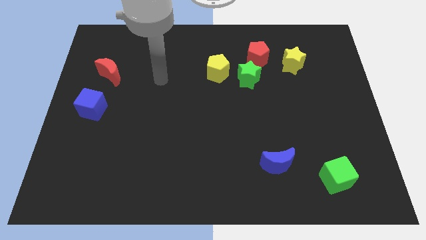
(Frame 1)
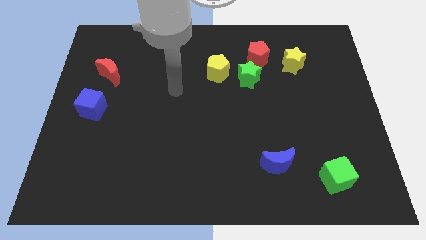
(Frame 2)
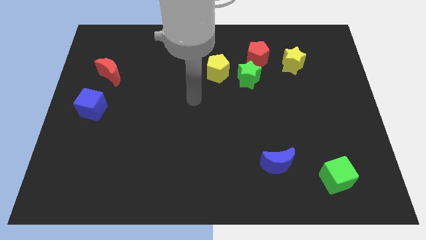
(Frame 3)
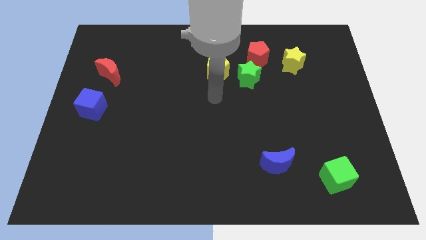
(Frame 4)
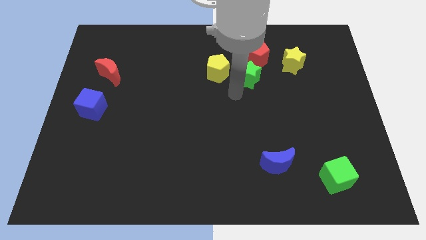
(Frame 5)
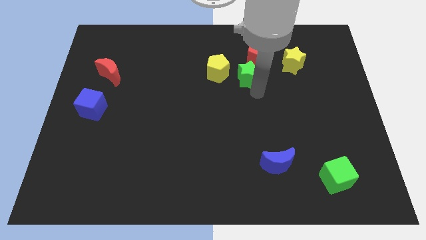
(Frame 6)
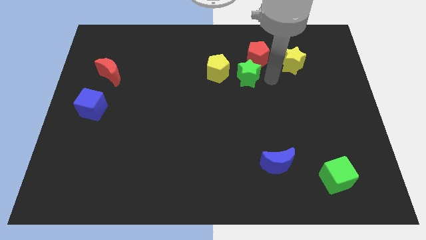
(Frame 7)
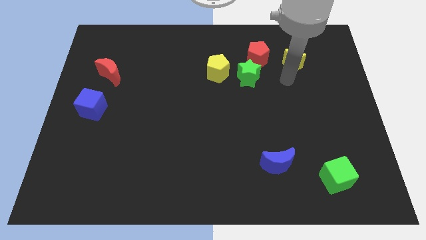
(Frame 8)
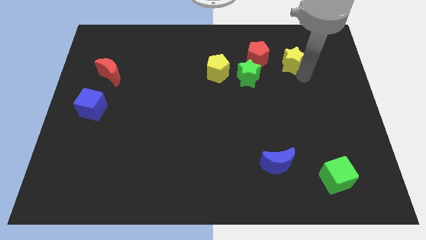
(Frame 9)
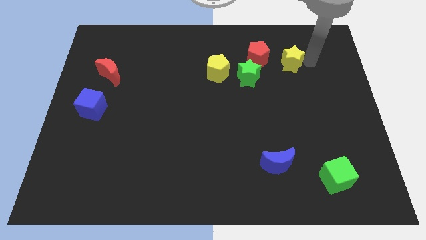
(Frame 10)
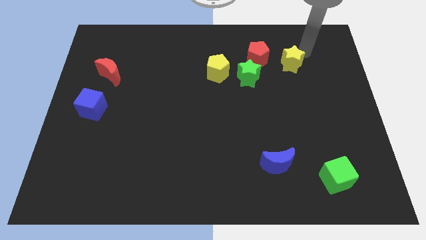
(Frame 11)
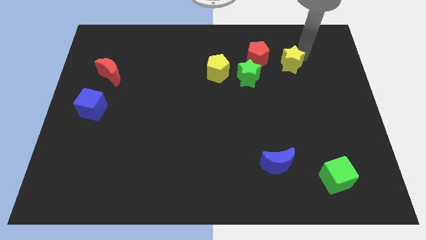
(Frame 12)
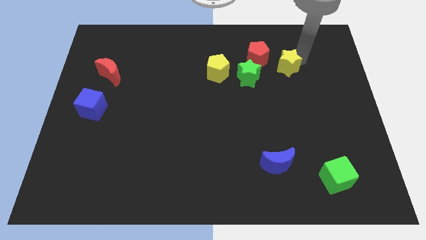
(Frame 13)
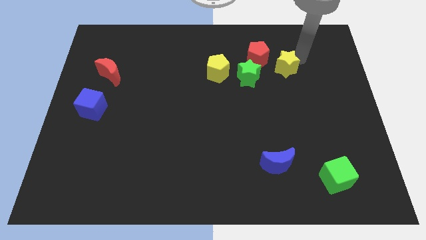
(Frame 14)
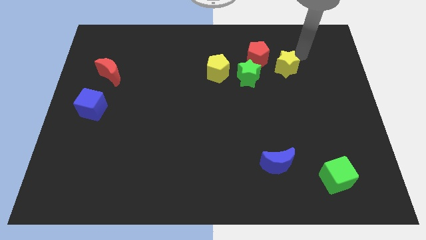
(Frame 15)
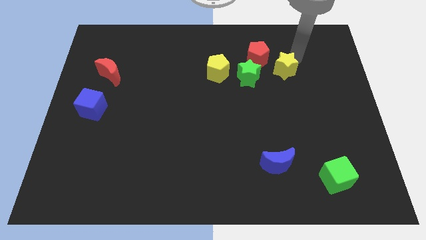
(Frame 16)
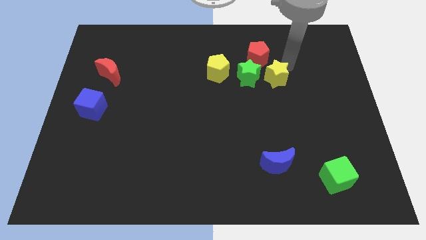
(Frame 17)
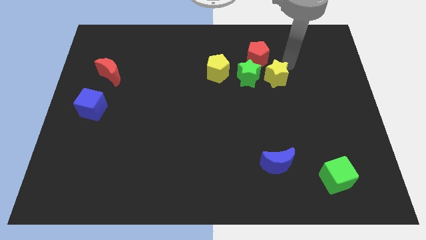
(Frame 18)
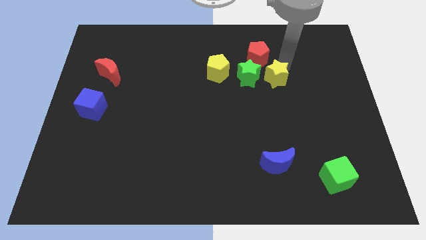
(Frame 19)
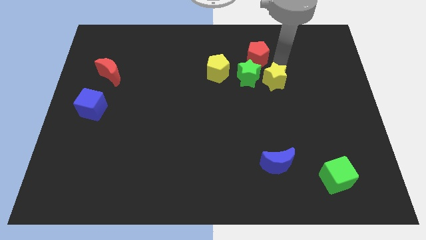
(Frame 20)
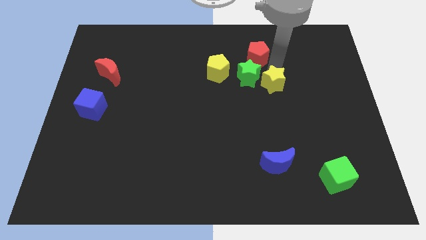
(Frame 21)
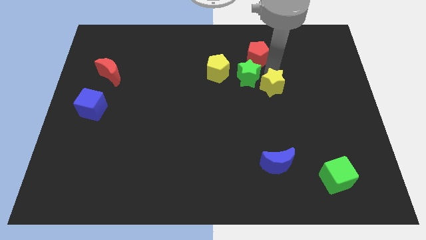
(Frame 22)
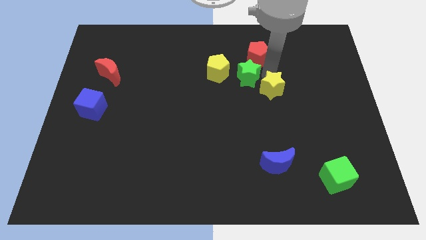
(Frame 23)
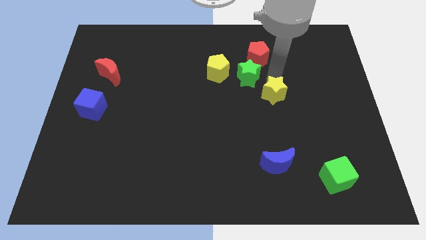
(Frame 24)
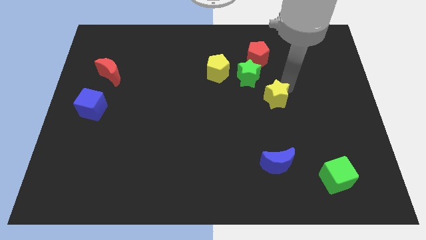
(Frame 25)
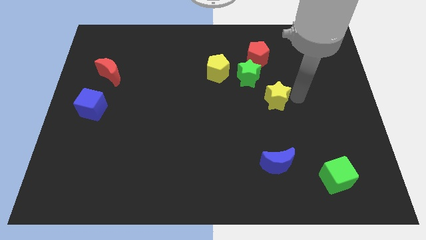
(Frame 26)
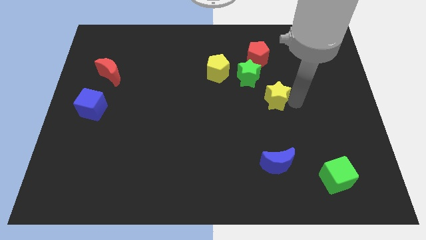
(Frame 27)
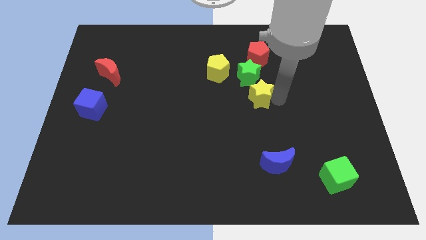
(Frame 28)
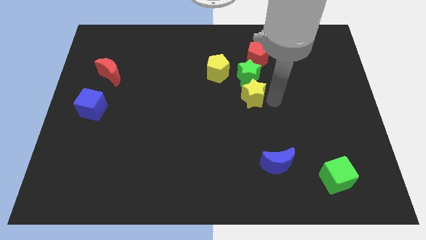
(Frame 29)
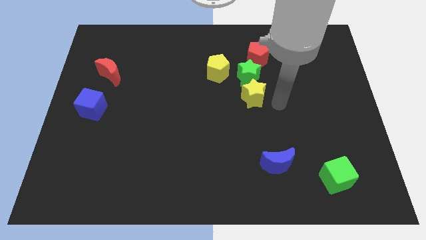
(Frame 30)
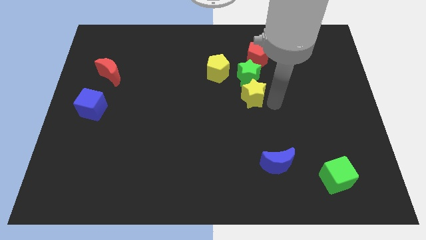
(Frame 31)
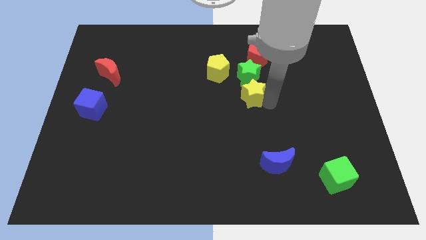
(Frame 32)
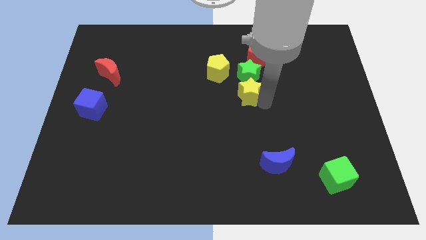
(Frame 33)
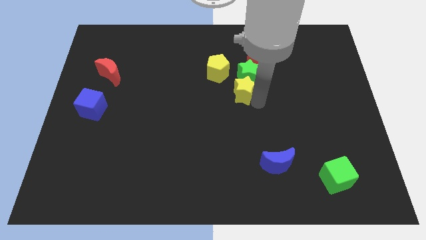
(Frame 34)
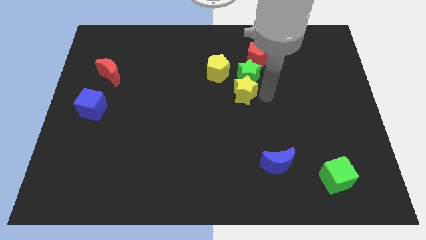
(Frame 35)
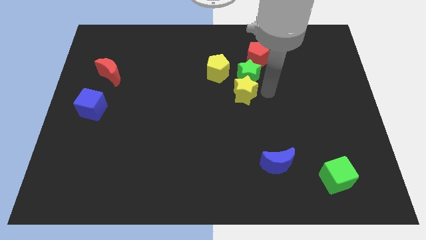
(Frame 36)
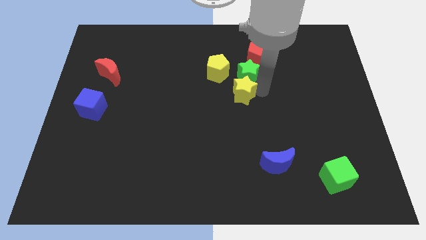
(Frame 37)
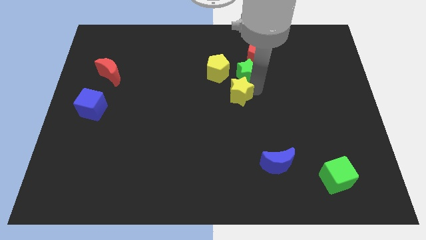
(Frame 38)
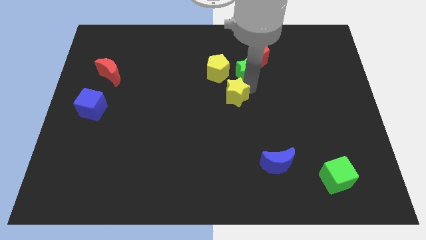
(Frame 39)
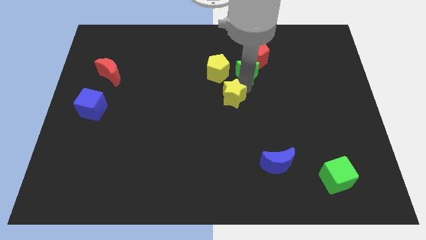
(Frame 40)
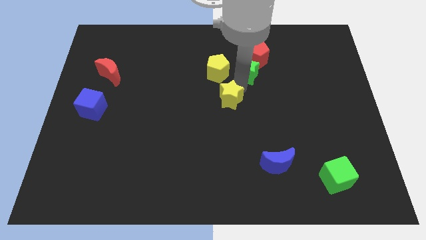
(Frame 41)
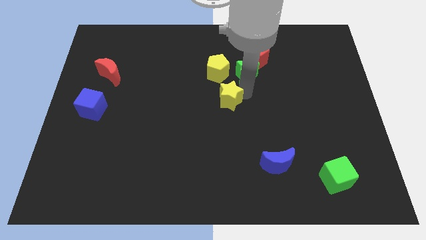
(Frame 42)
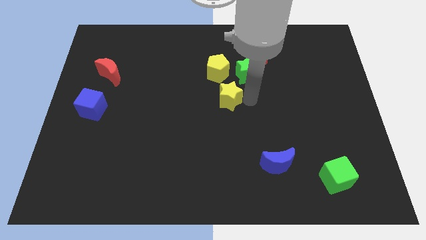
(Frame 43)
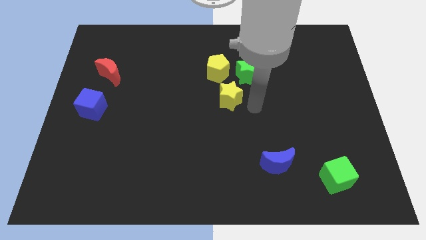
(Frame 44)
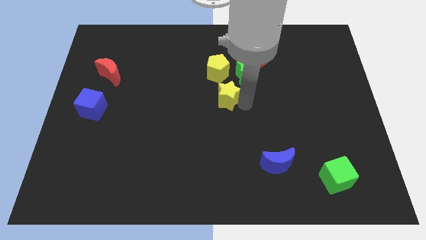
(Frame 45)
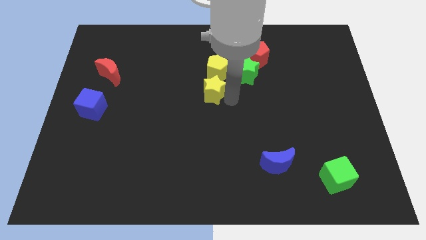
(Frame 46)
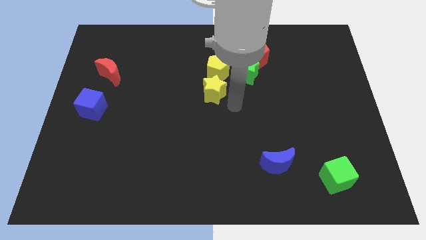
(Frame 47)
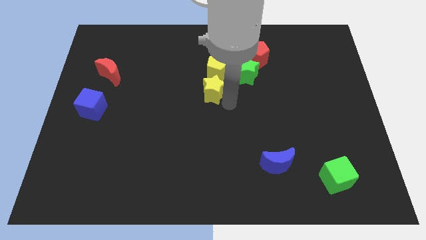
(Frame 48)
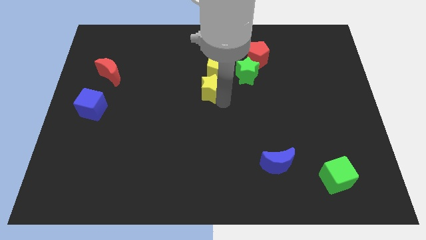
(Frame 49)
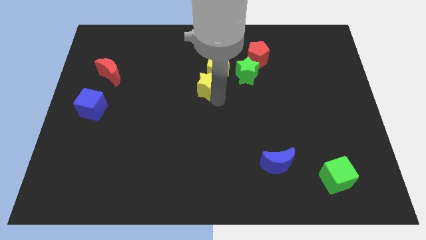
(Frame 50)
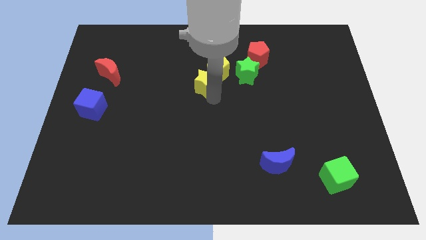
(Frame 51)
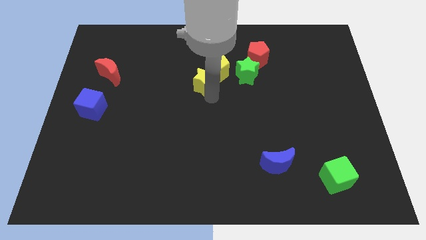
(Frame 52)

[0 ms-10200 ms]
slide the yellow star to the left

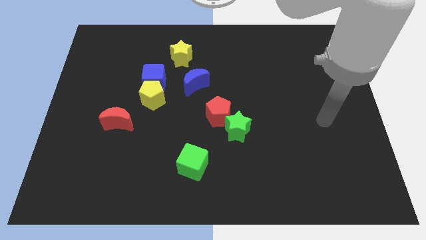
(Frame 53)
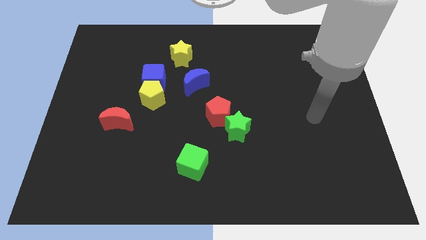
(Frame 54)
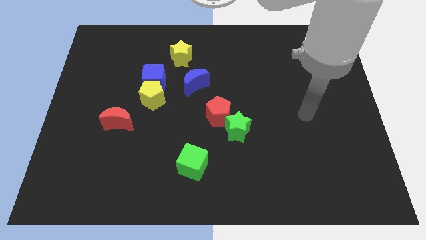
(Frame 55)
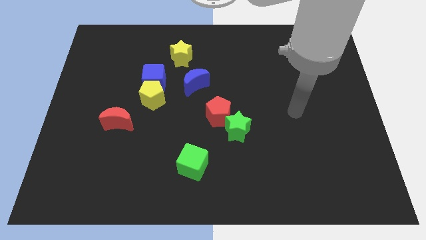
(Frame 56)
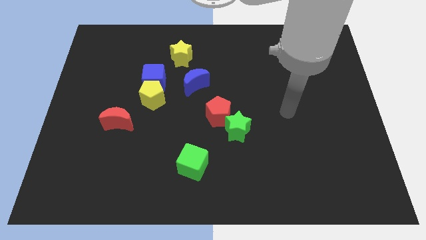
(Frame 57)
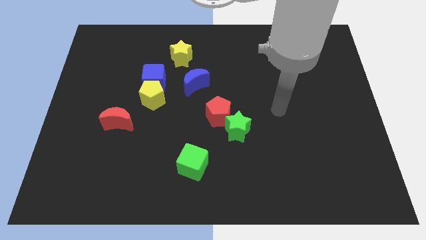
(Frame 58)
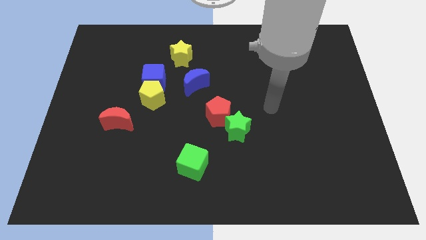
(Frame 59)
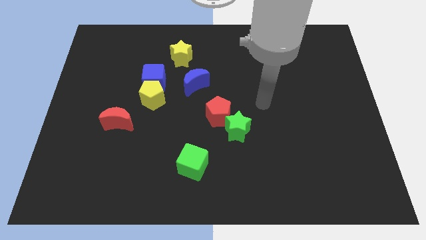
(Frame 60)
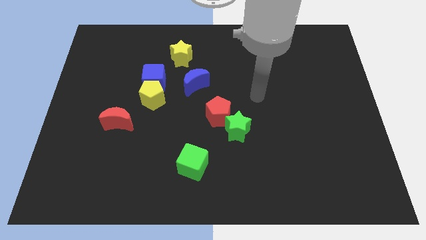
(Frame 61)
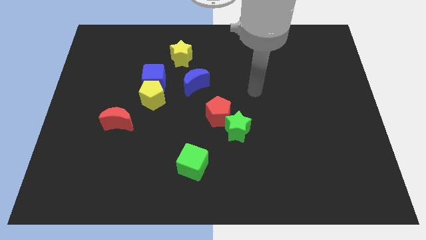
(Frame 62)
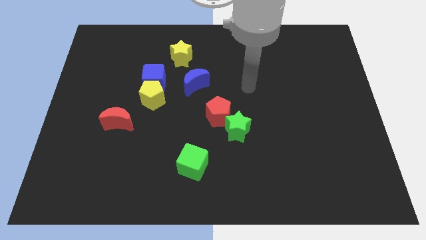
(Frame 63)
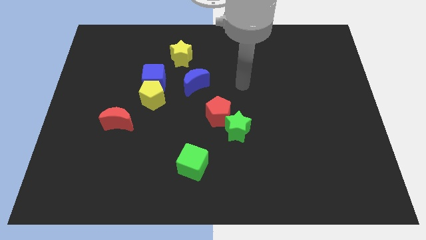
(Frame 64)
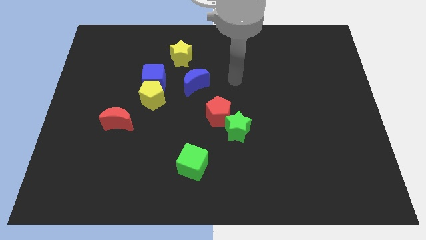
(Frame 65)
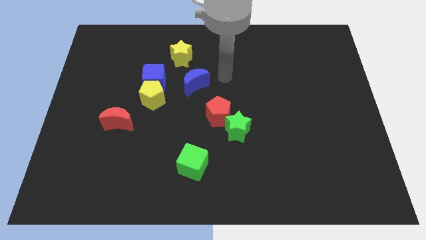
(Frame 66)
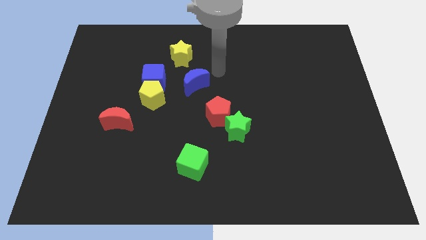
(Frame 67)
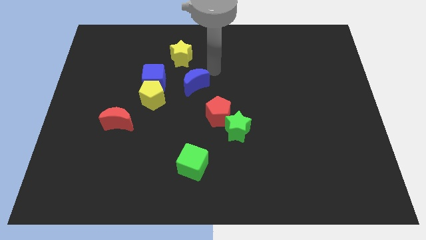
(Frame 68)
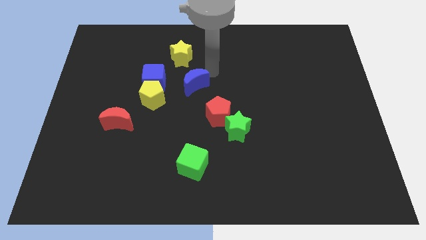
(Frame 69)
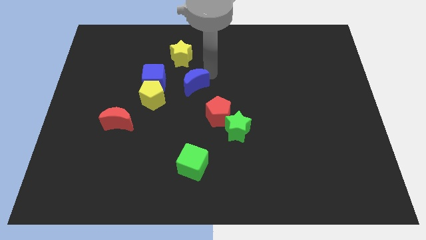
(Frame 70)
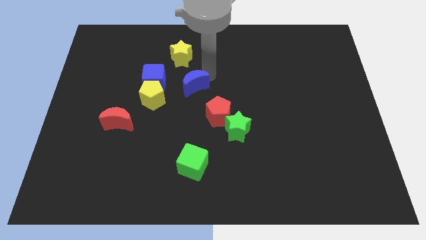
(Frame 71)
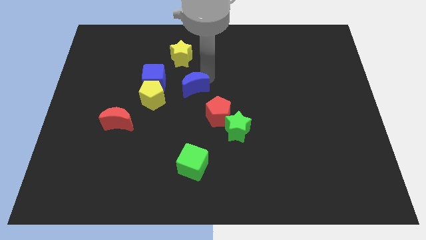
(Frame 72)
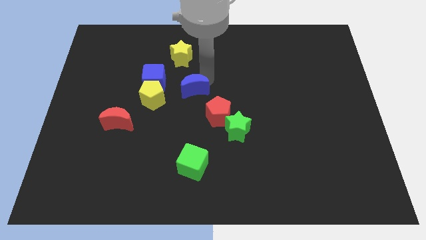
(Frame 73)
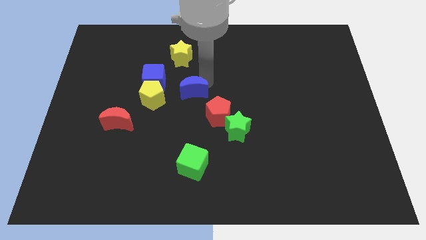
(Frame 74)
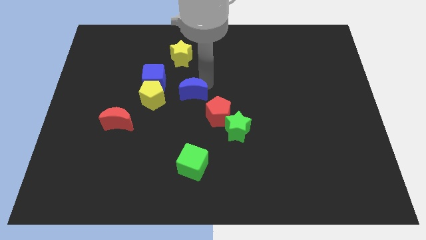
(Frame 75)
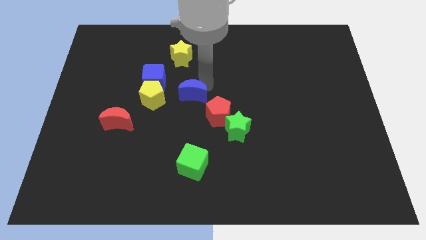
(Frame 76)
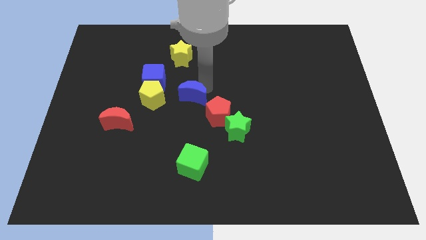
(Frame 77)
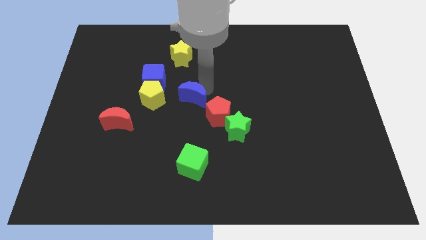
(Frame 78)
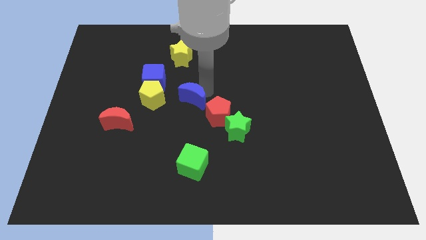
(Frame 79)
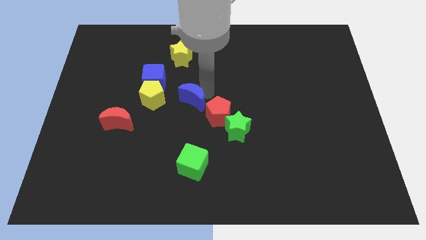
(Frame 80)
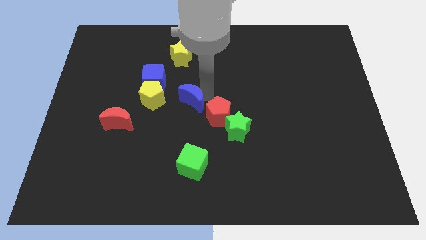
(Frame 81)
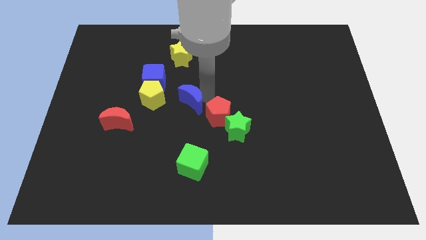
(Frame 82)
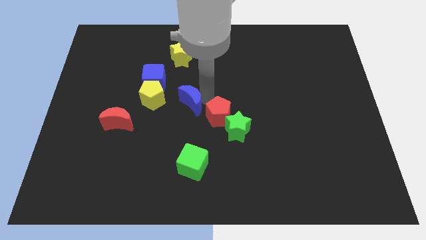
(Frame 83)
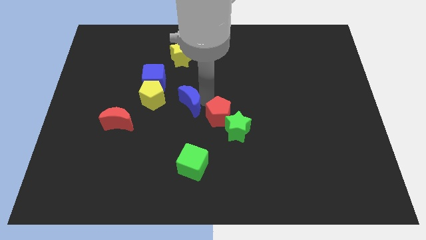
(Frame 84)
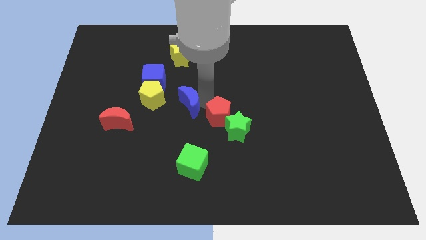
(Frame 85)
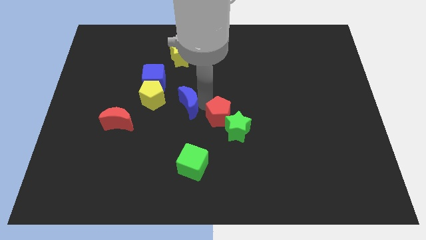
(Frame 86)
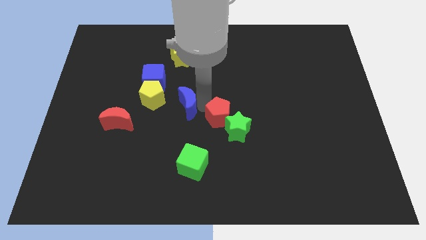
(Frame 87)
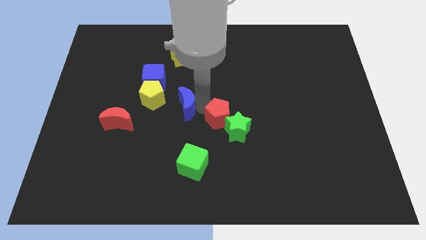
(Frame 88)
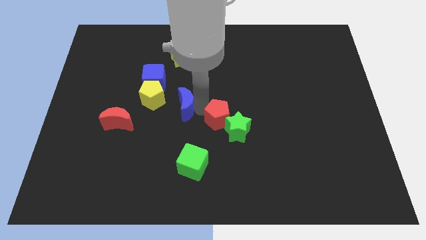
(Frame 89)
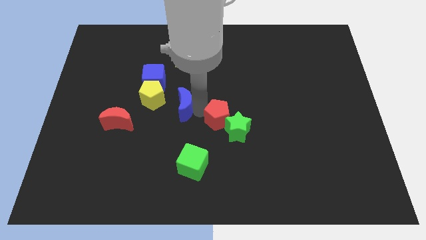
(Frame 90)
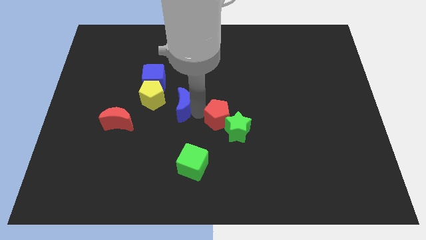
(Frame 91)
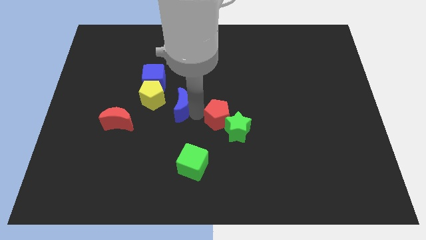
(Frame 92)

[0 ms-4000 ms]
slide the blue moon down and then to the left somewhat
